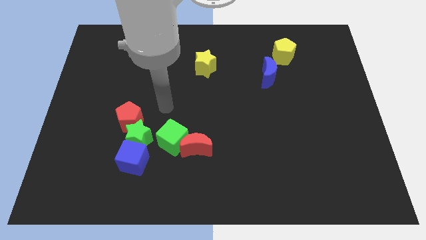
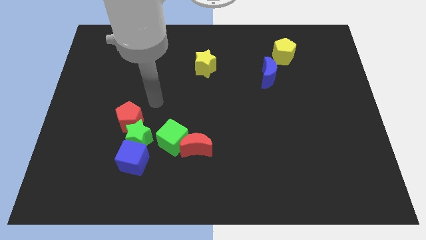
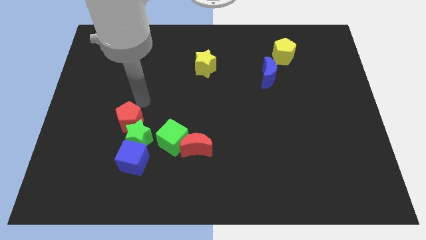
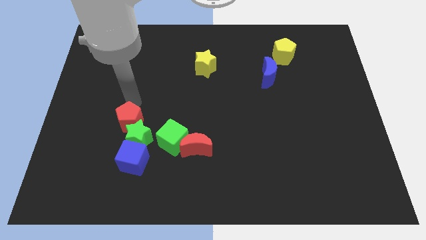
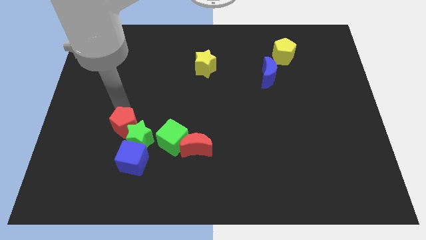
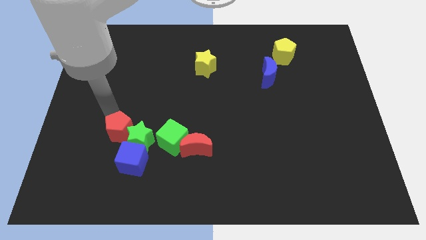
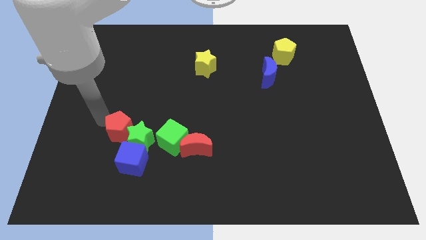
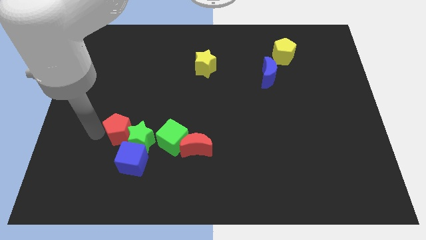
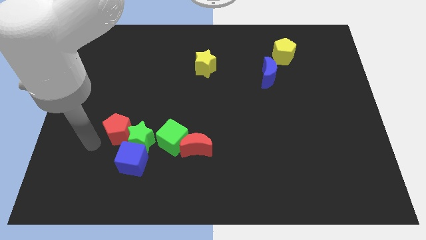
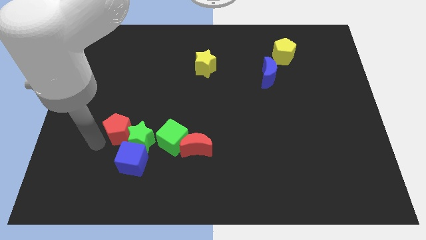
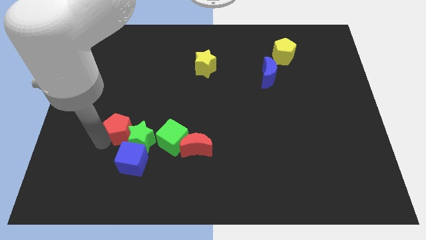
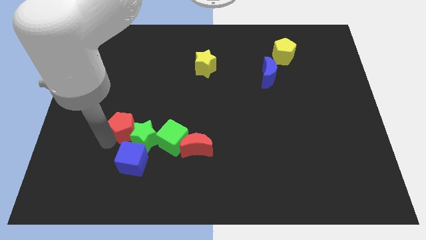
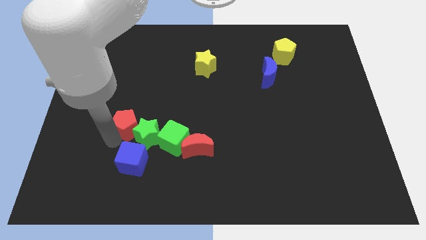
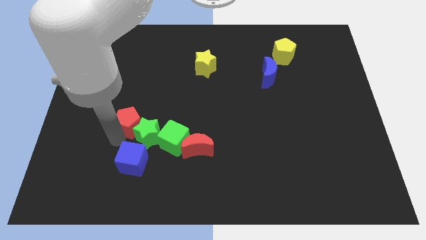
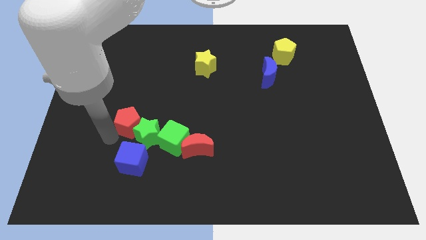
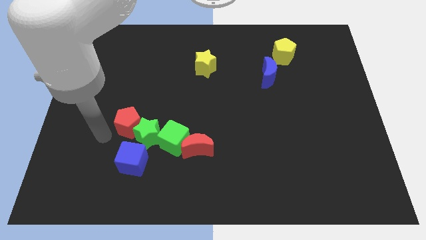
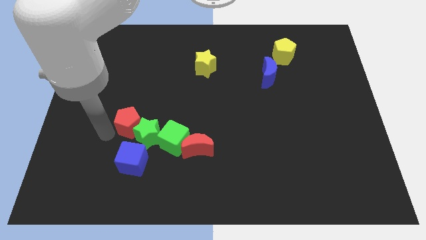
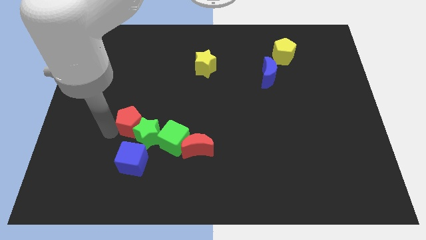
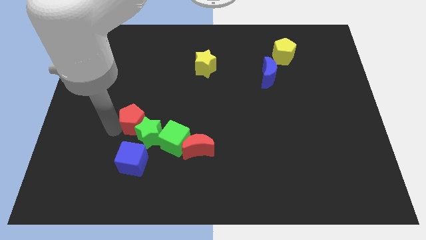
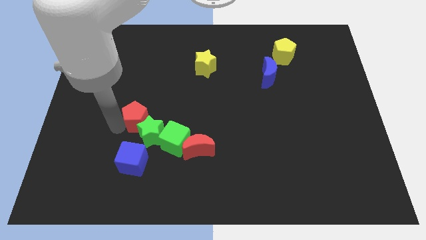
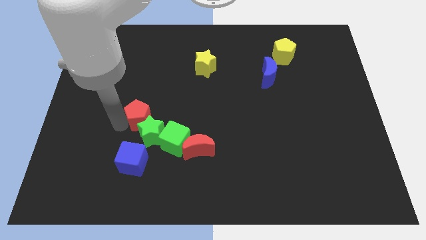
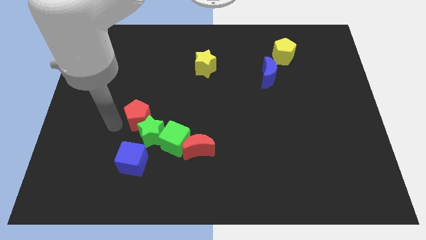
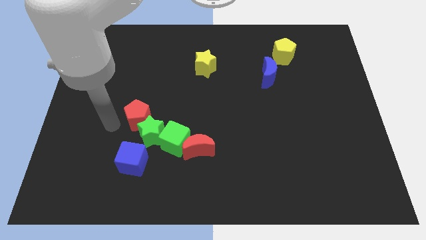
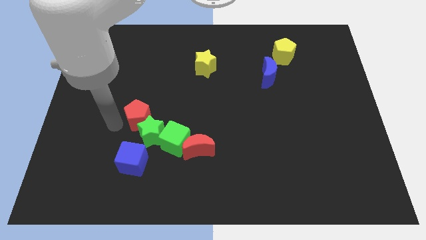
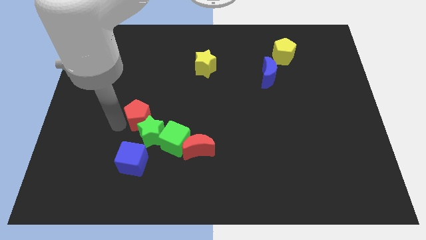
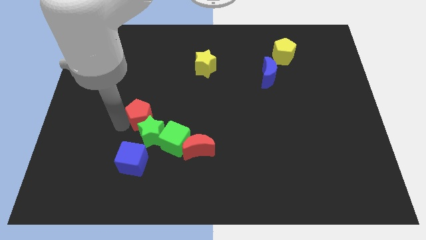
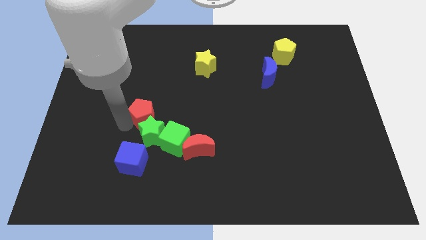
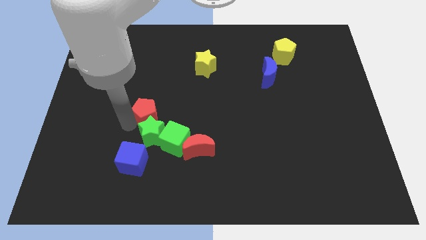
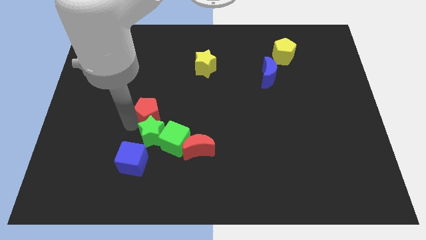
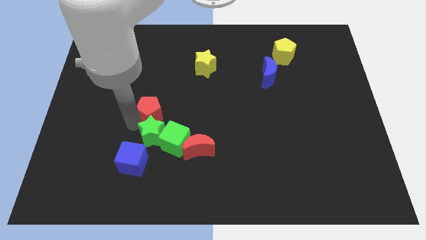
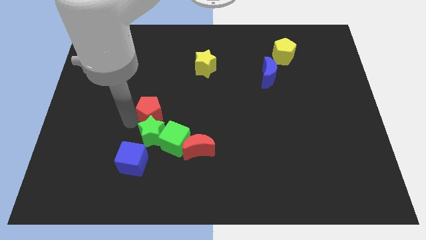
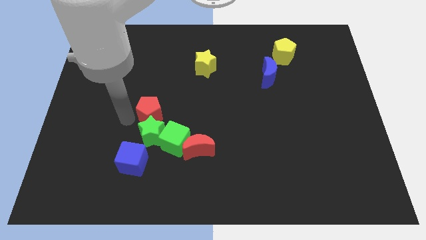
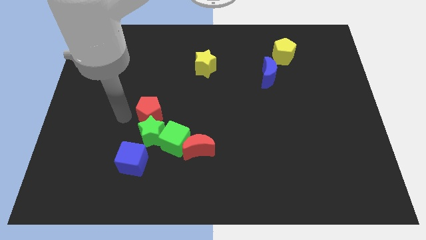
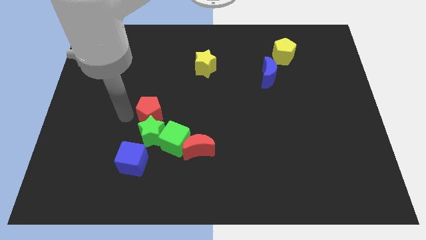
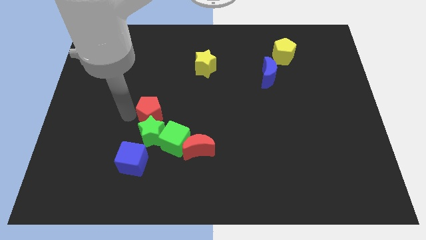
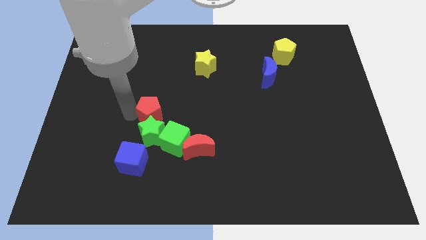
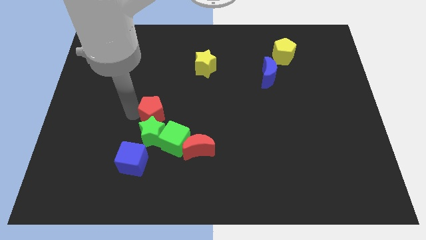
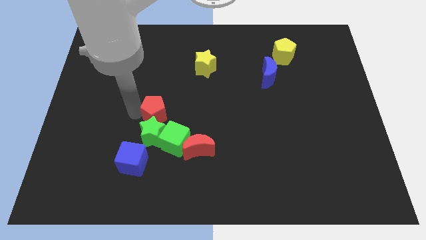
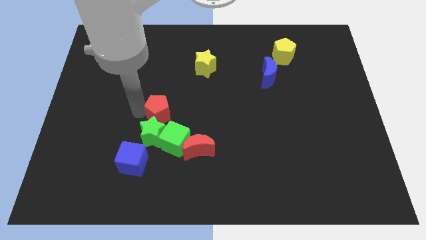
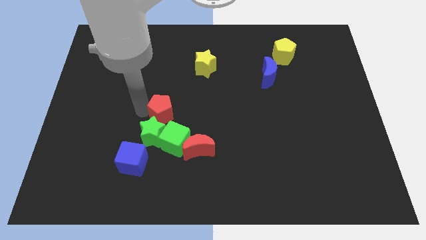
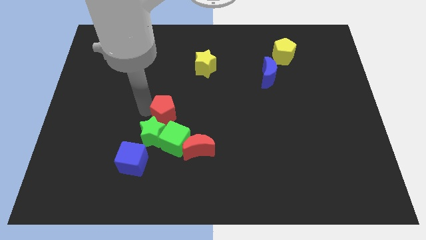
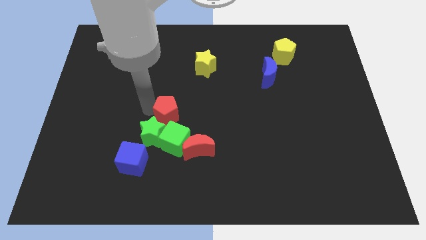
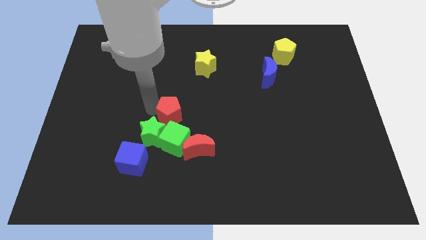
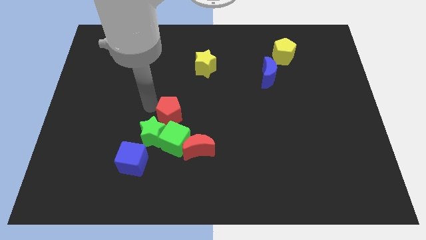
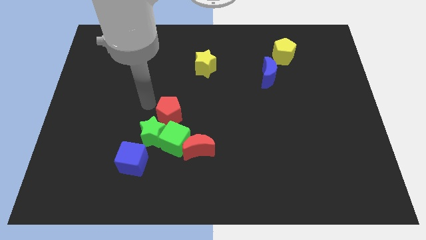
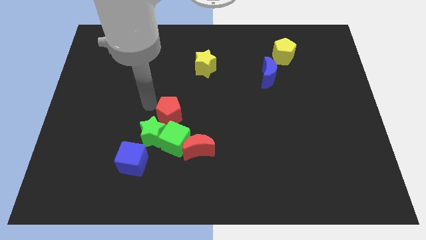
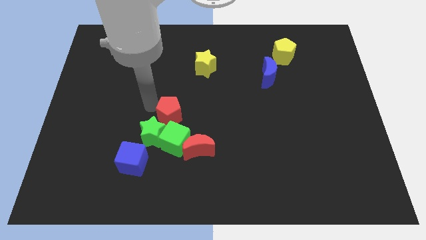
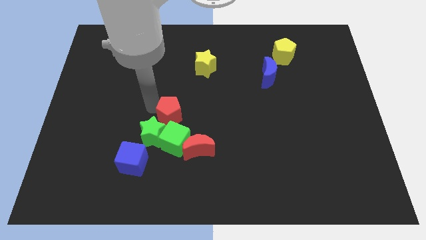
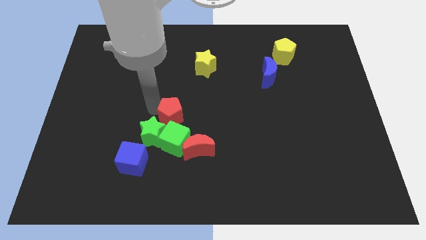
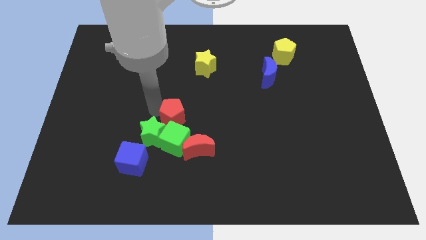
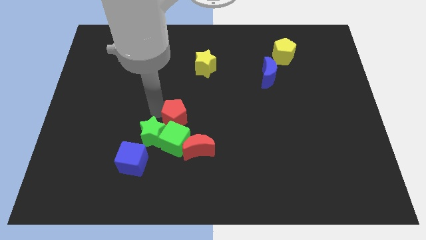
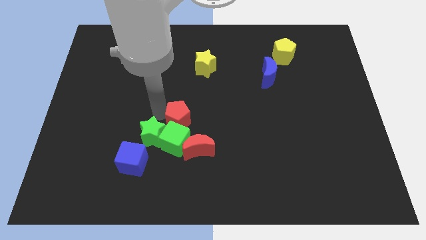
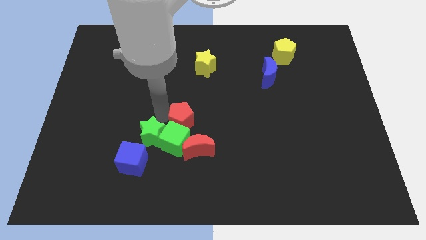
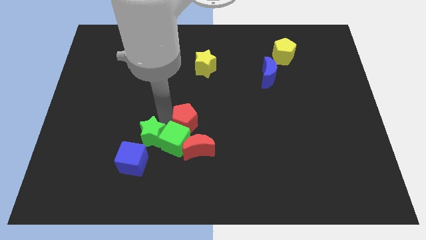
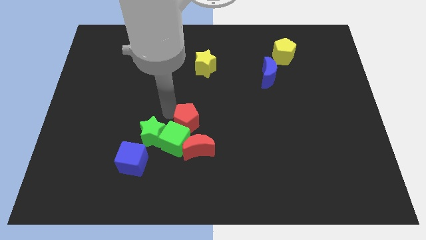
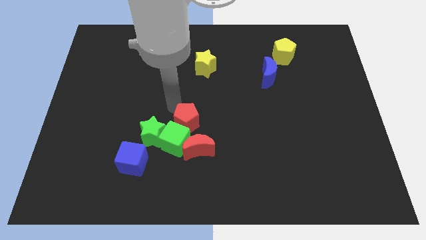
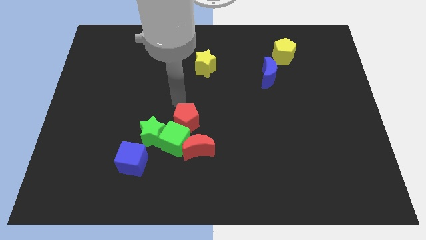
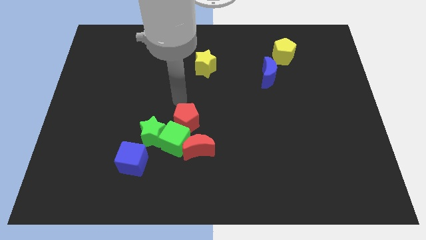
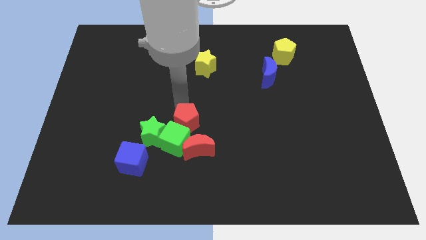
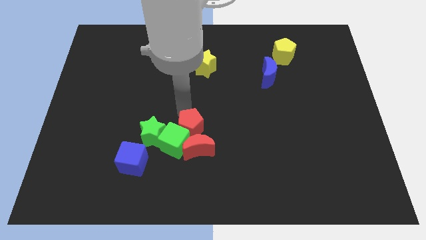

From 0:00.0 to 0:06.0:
move the red pentagon towards the red moon

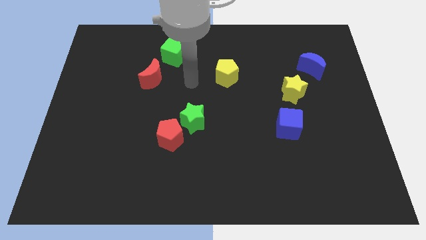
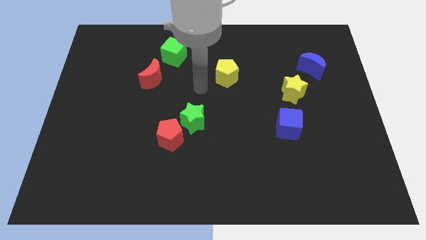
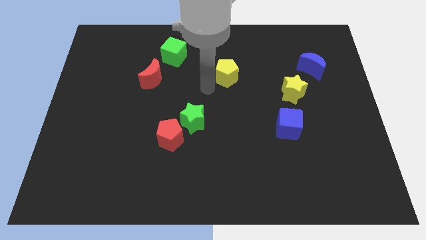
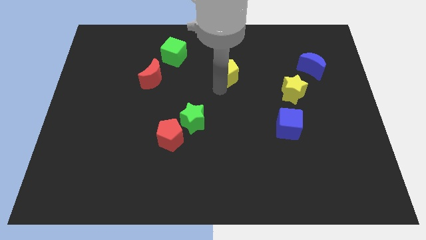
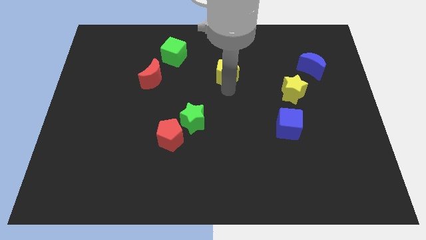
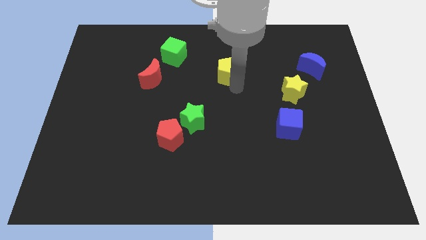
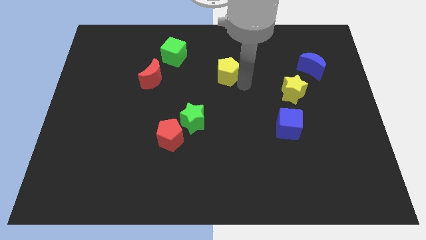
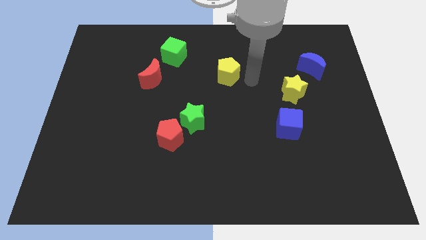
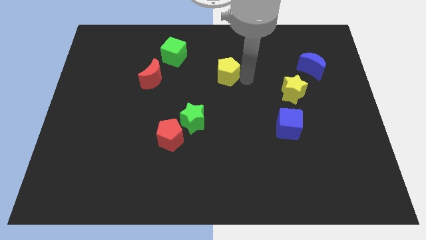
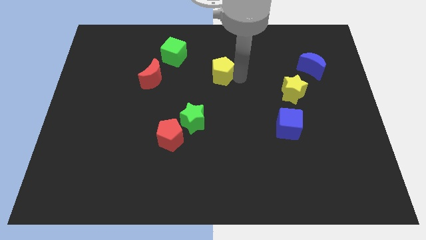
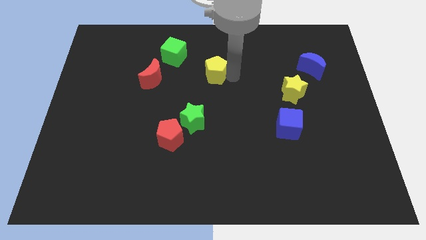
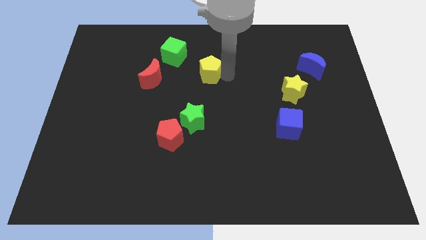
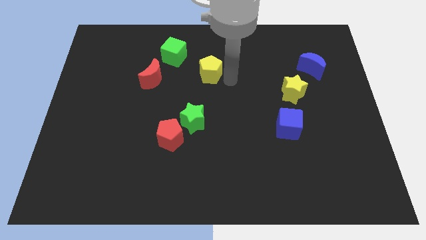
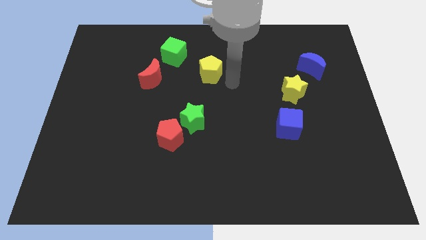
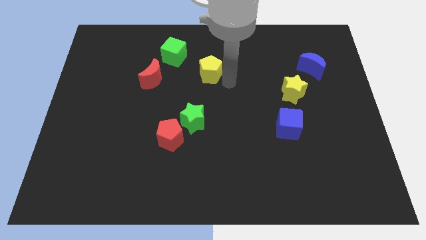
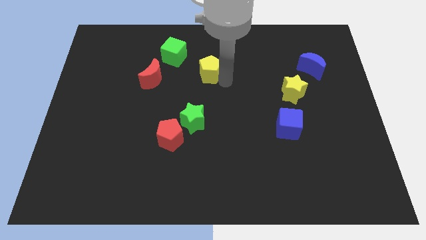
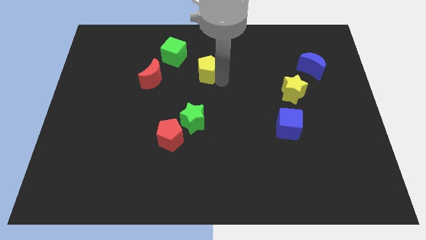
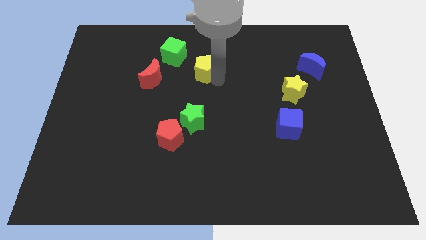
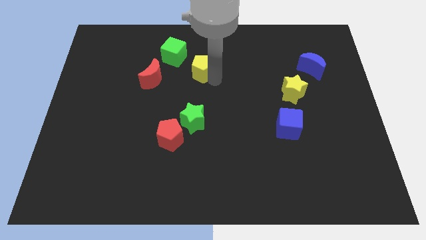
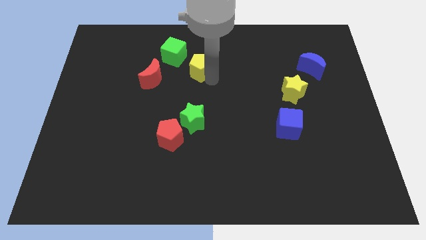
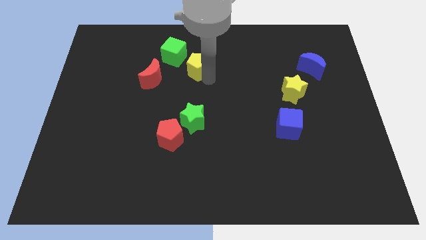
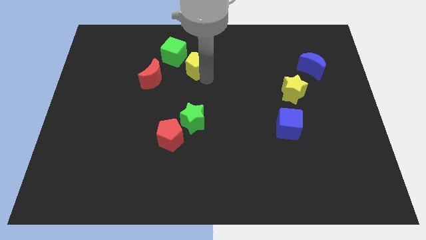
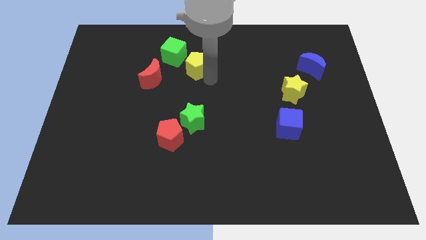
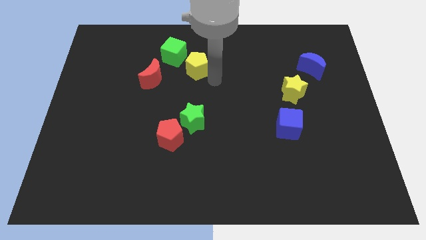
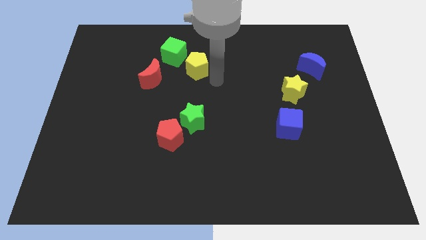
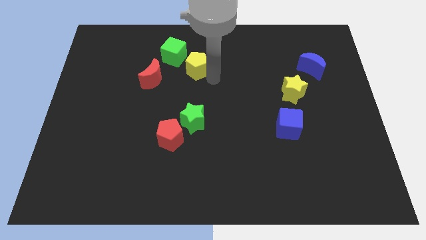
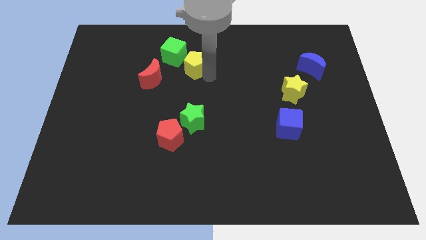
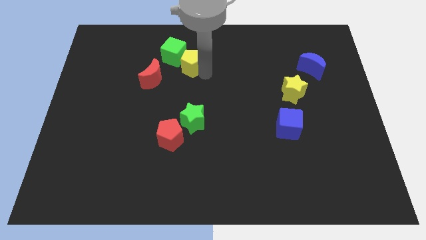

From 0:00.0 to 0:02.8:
move the yellow pentagon next to the green cube
